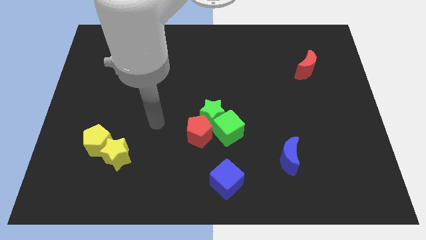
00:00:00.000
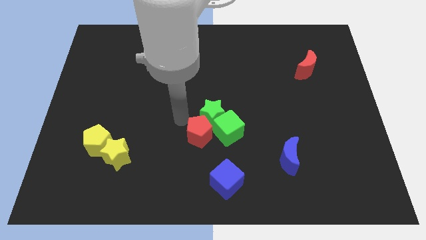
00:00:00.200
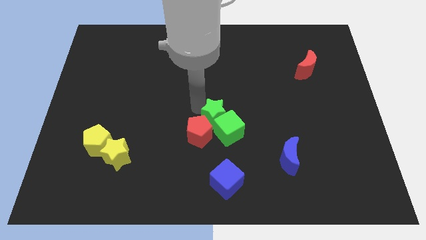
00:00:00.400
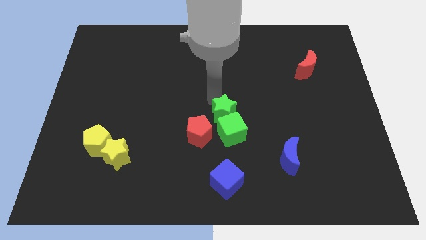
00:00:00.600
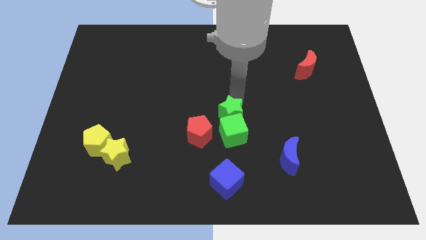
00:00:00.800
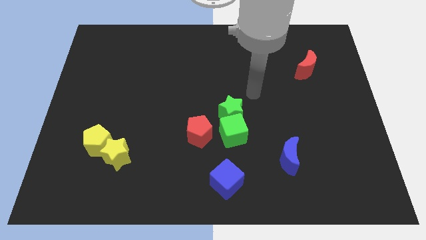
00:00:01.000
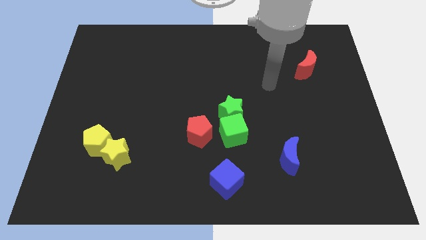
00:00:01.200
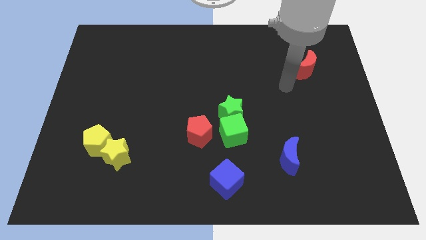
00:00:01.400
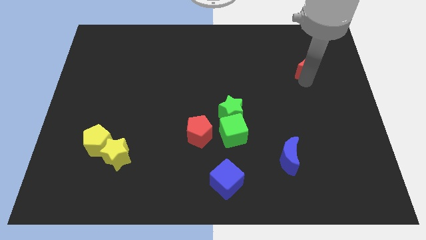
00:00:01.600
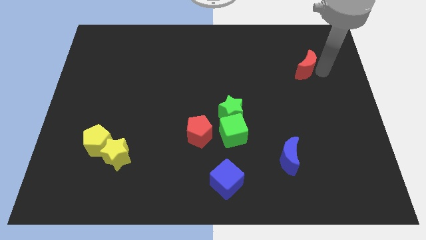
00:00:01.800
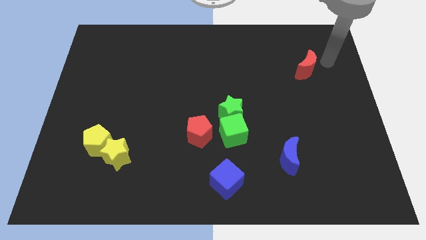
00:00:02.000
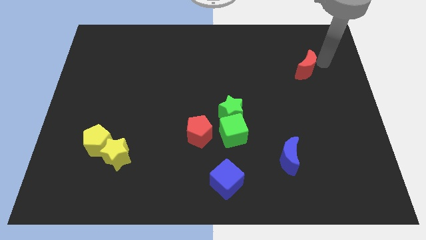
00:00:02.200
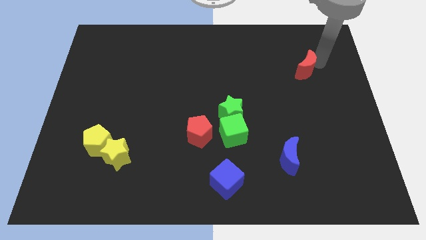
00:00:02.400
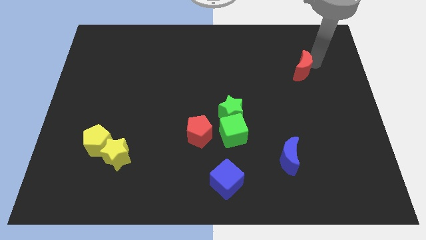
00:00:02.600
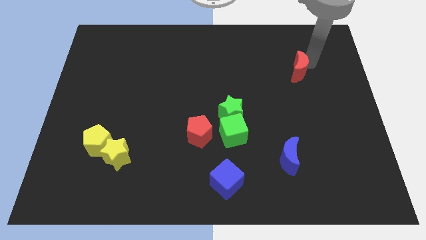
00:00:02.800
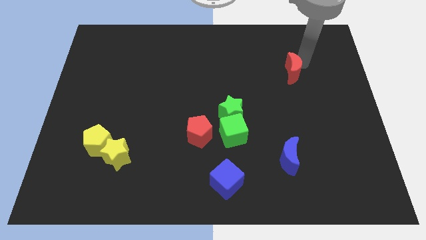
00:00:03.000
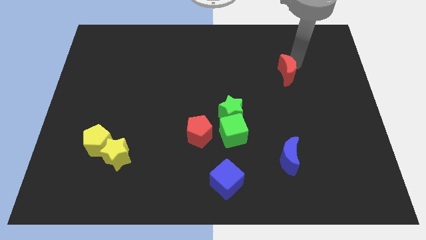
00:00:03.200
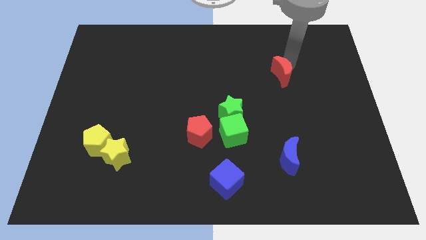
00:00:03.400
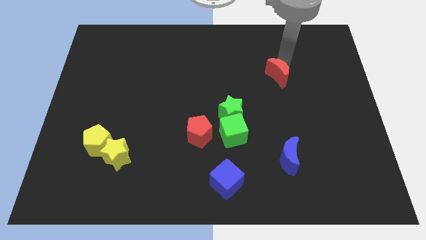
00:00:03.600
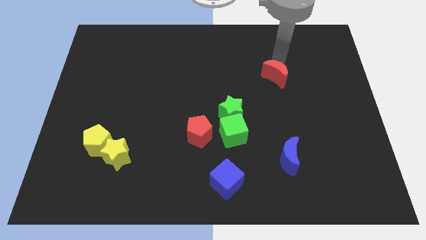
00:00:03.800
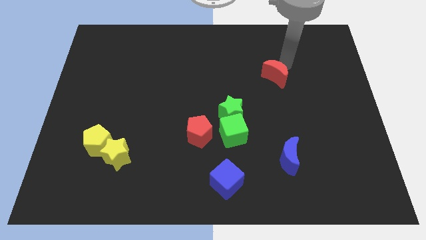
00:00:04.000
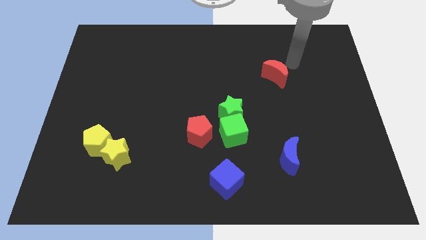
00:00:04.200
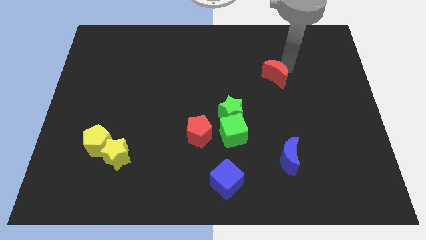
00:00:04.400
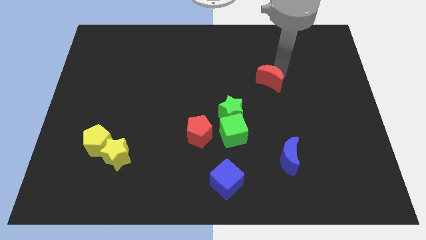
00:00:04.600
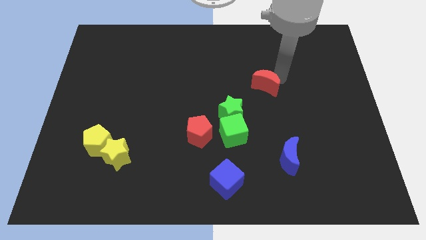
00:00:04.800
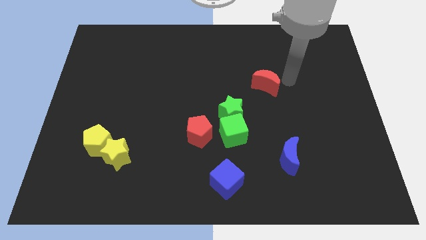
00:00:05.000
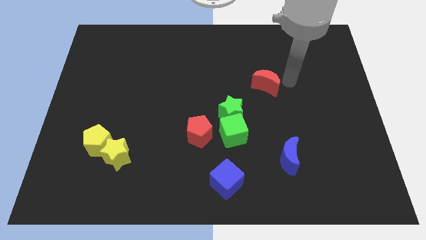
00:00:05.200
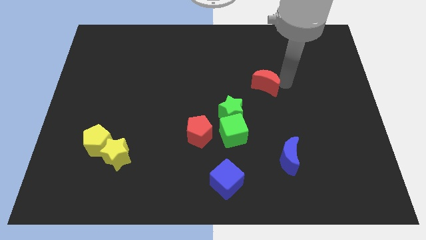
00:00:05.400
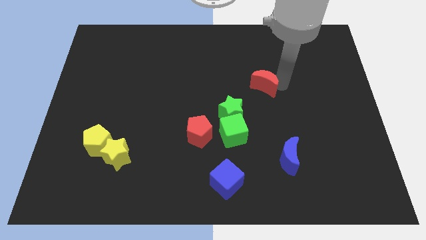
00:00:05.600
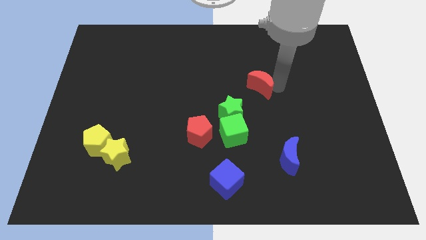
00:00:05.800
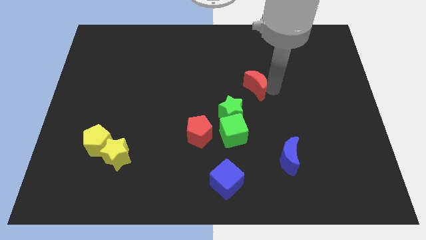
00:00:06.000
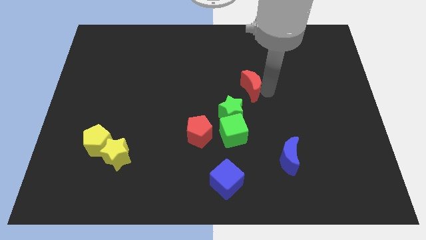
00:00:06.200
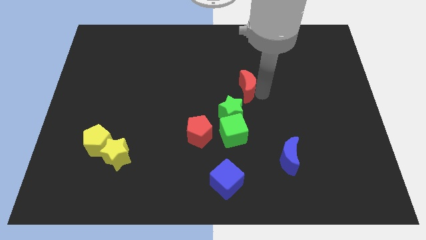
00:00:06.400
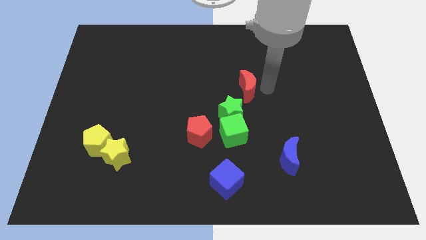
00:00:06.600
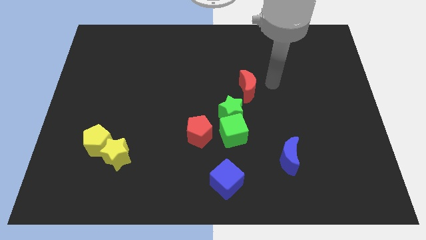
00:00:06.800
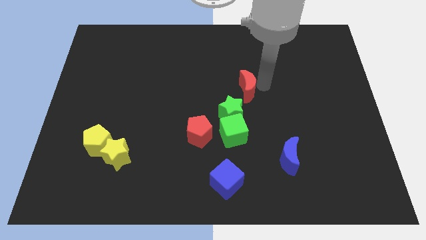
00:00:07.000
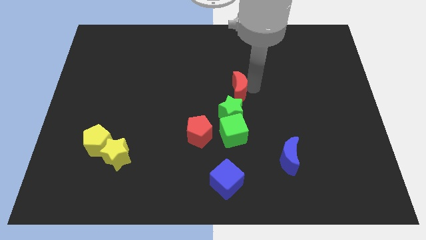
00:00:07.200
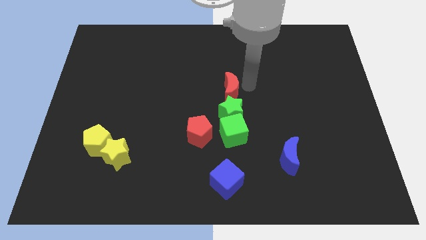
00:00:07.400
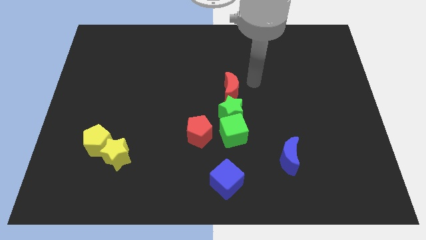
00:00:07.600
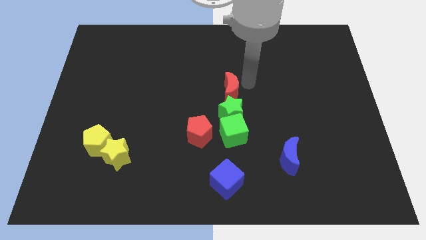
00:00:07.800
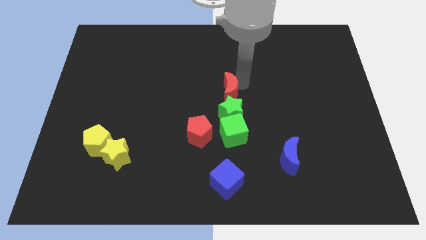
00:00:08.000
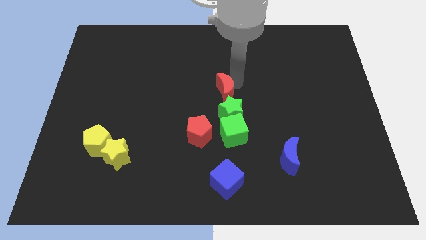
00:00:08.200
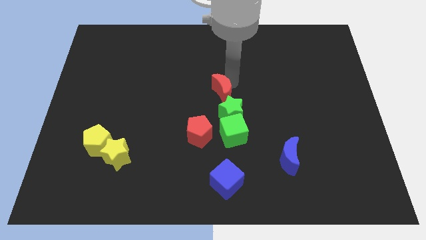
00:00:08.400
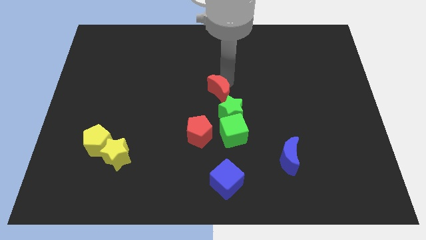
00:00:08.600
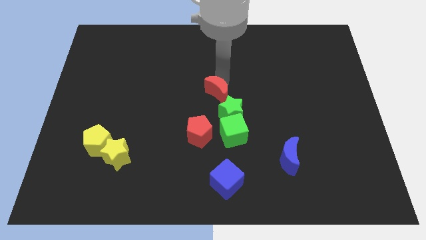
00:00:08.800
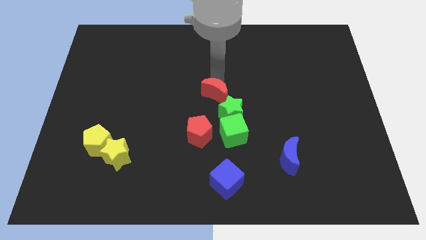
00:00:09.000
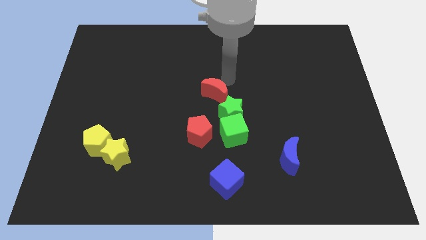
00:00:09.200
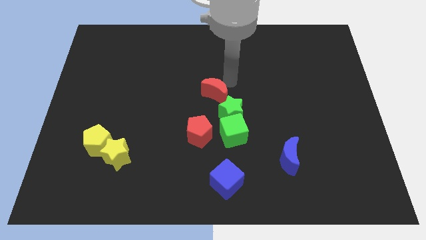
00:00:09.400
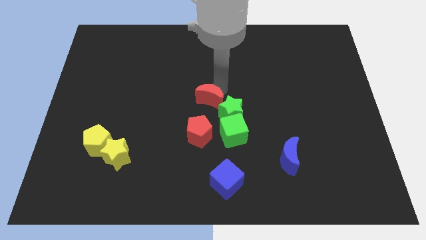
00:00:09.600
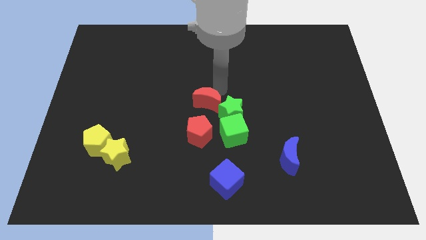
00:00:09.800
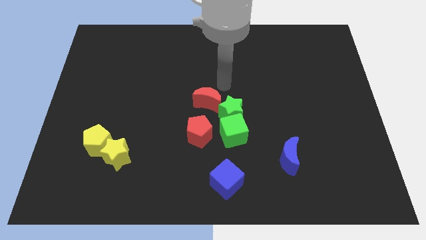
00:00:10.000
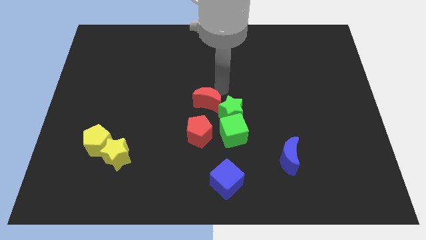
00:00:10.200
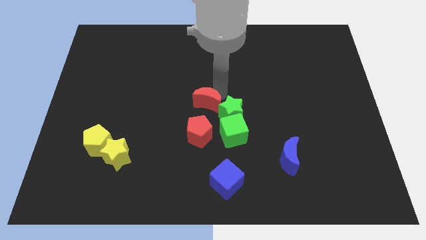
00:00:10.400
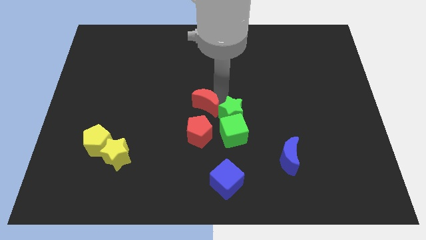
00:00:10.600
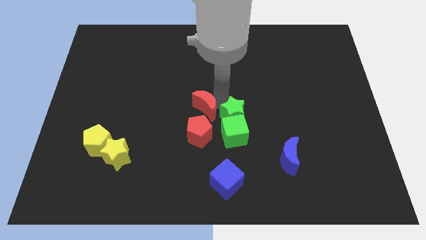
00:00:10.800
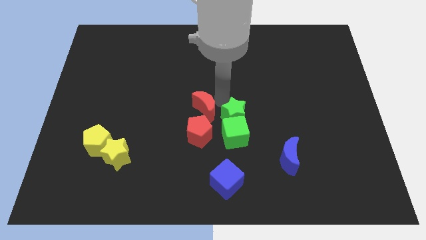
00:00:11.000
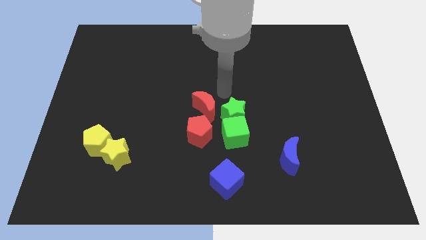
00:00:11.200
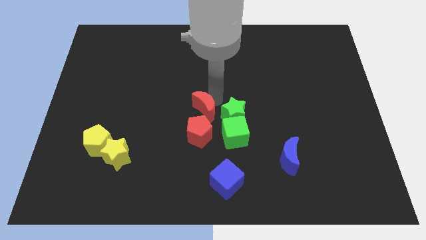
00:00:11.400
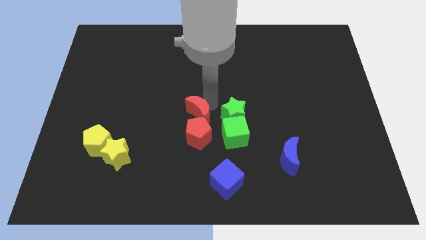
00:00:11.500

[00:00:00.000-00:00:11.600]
move the red moon towards the red pentagon

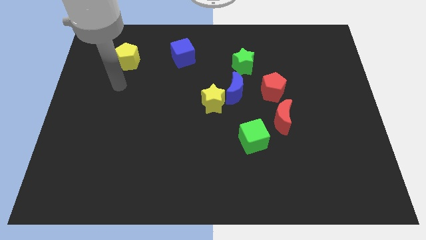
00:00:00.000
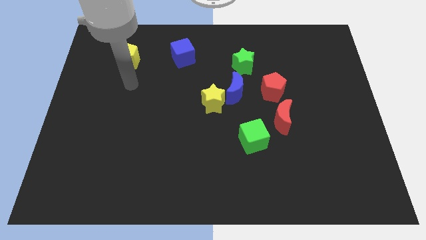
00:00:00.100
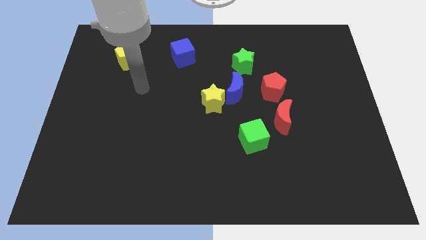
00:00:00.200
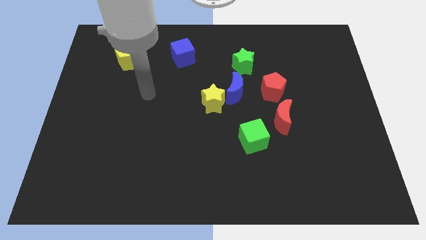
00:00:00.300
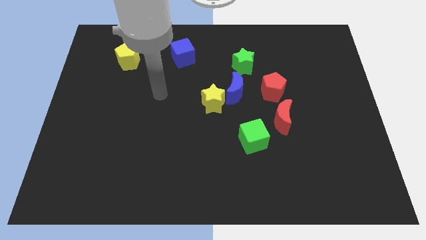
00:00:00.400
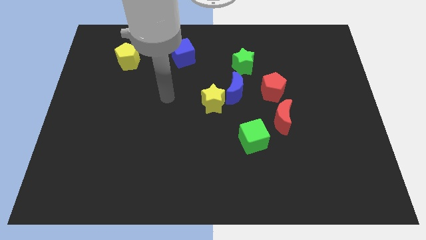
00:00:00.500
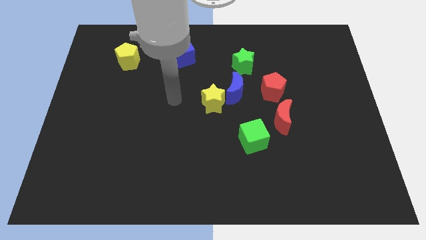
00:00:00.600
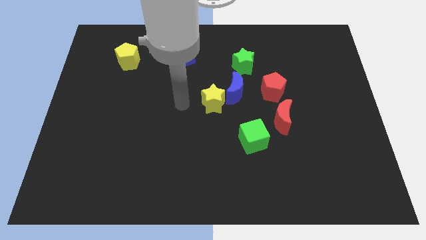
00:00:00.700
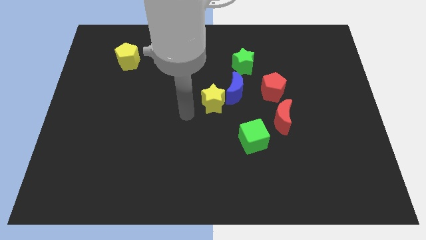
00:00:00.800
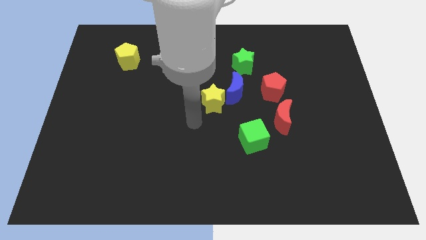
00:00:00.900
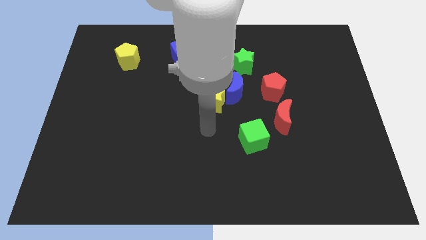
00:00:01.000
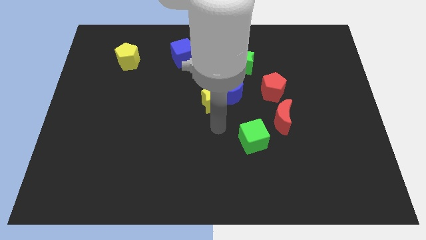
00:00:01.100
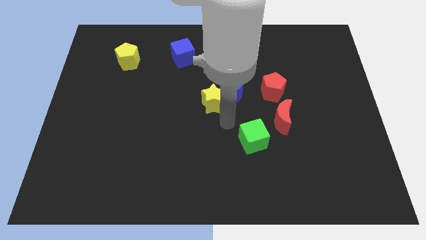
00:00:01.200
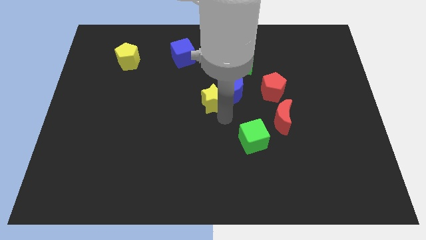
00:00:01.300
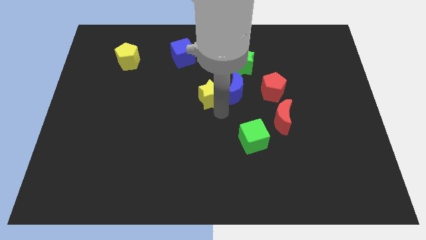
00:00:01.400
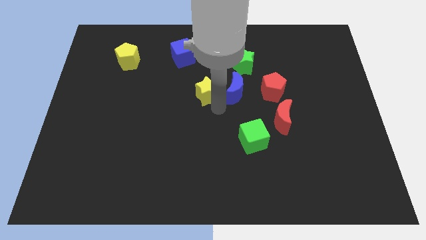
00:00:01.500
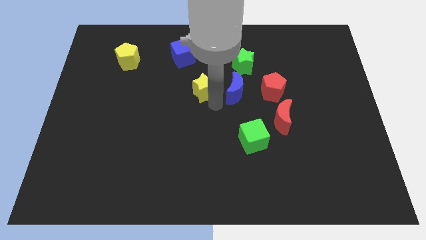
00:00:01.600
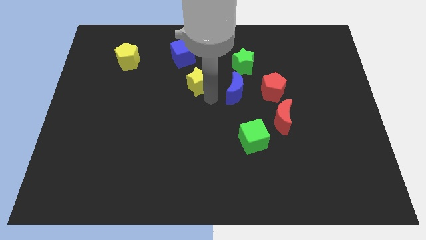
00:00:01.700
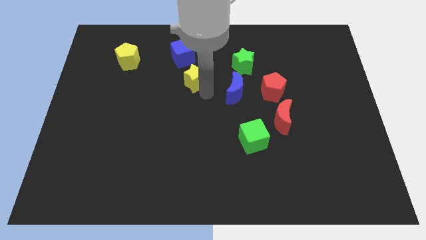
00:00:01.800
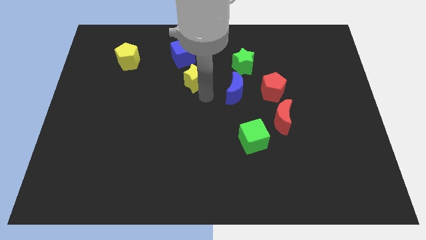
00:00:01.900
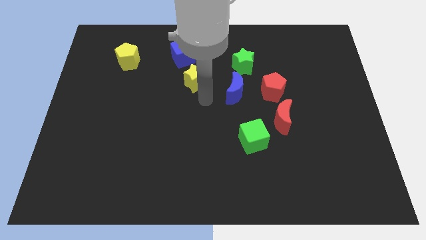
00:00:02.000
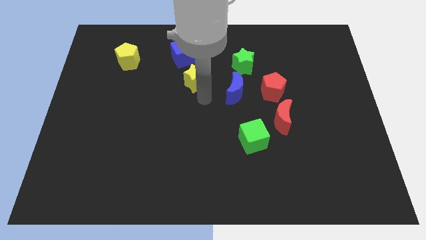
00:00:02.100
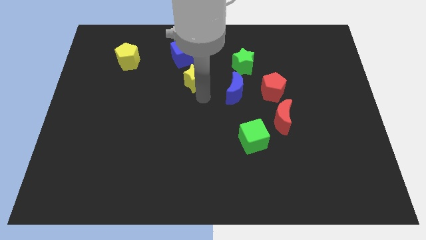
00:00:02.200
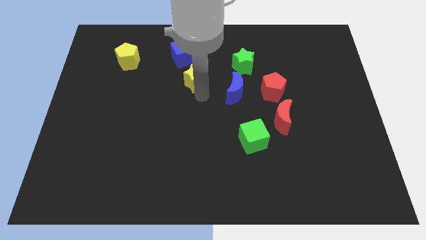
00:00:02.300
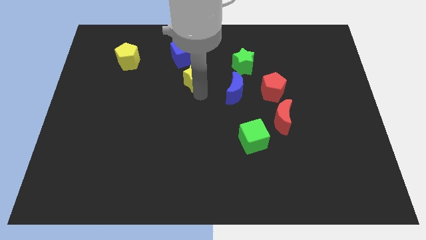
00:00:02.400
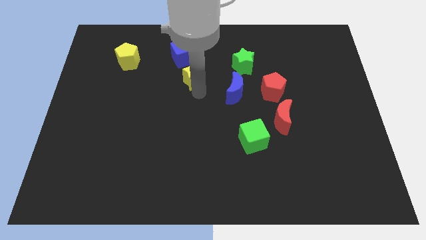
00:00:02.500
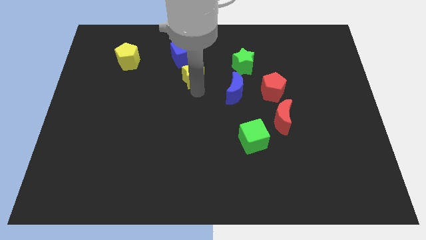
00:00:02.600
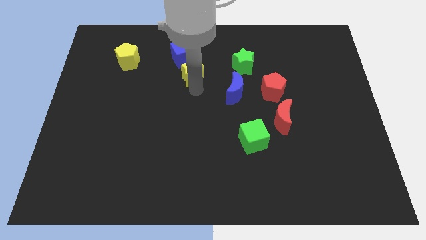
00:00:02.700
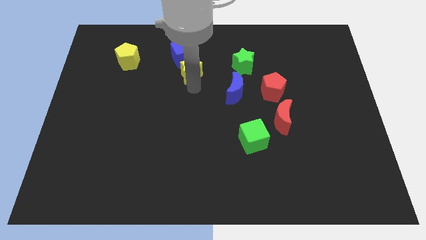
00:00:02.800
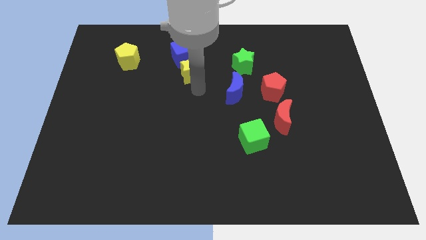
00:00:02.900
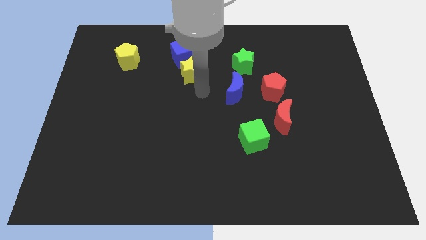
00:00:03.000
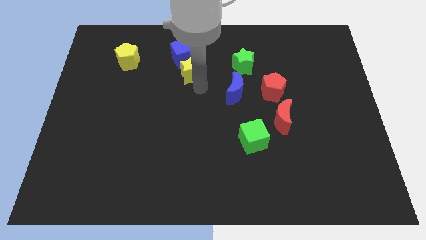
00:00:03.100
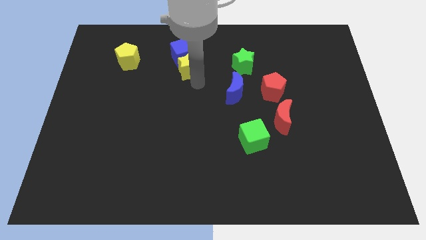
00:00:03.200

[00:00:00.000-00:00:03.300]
push the yellow star close to the blue cube
